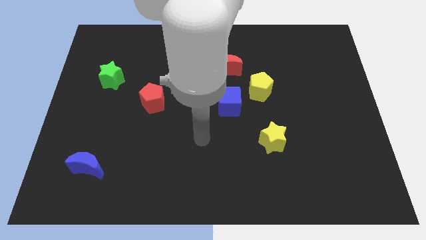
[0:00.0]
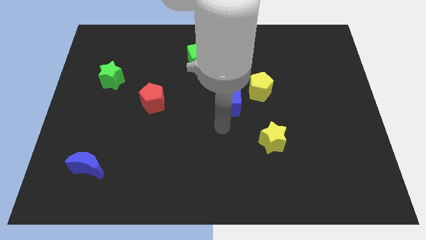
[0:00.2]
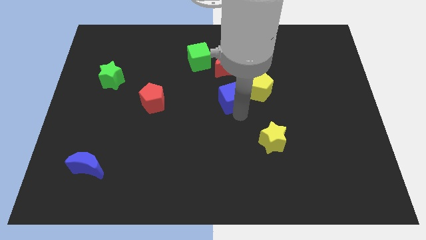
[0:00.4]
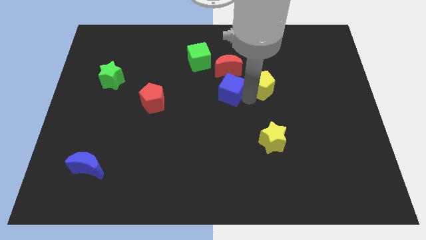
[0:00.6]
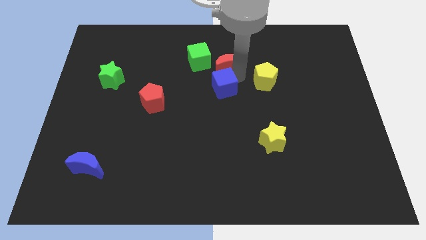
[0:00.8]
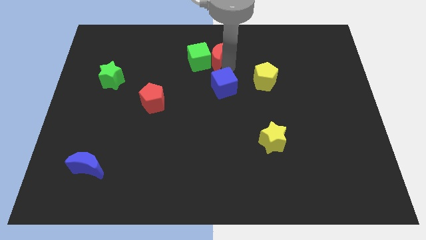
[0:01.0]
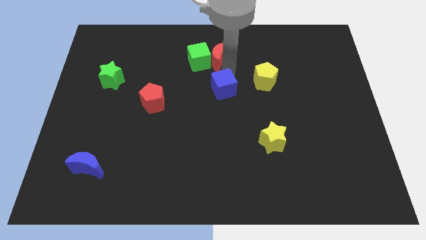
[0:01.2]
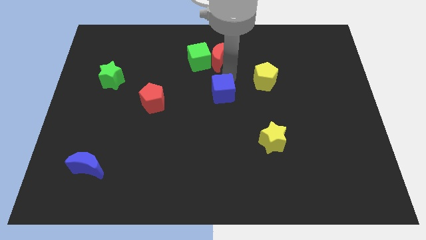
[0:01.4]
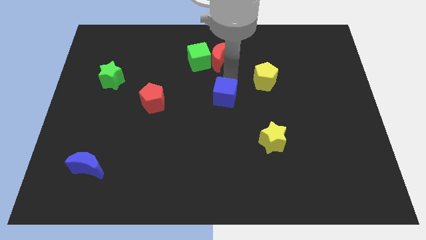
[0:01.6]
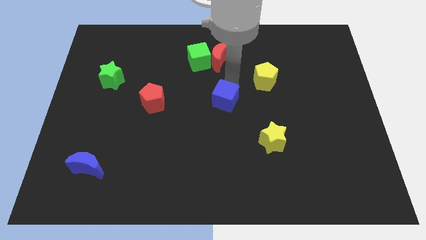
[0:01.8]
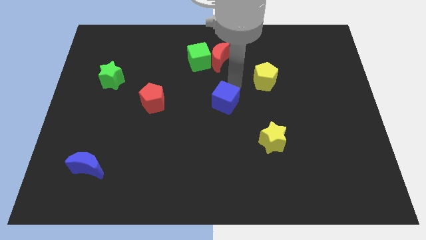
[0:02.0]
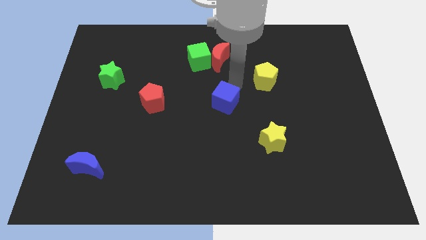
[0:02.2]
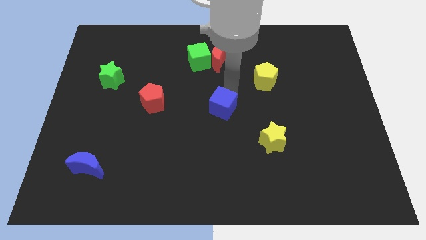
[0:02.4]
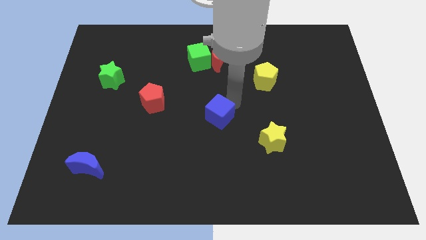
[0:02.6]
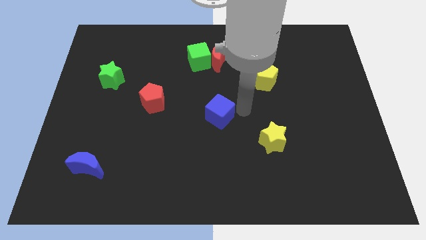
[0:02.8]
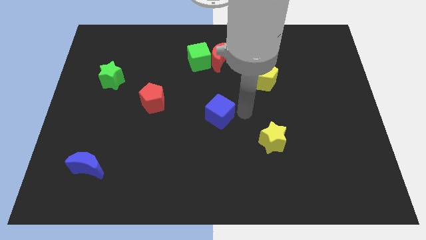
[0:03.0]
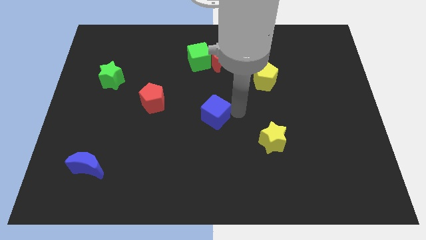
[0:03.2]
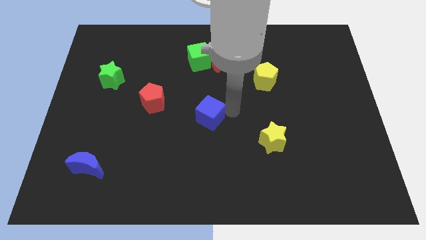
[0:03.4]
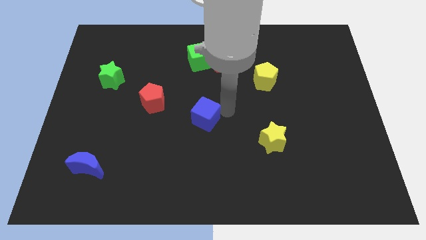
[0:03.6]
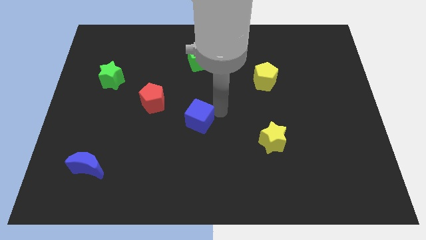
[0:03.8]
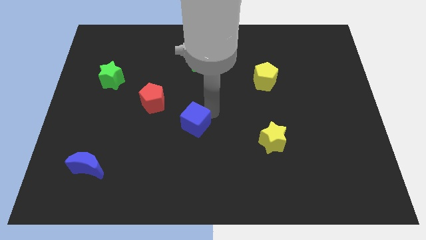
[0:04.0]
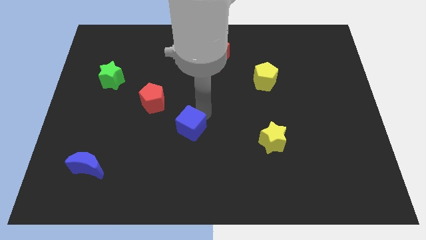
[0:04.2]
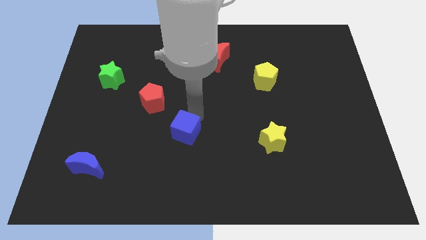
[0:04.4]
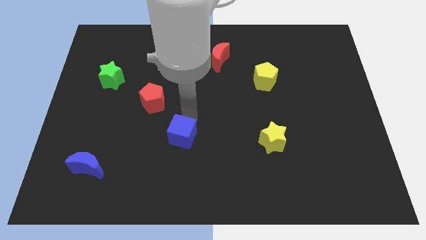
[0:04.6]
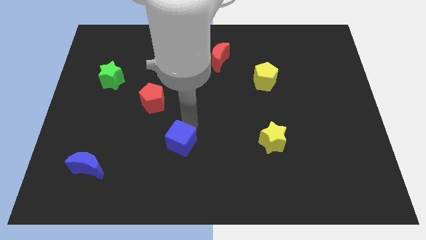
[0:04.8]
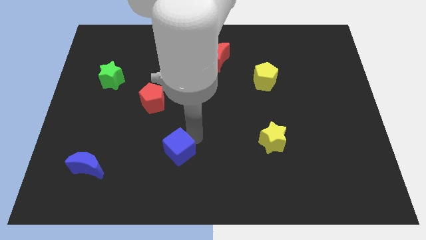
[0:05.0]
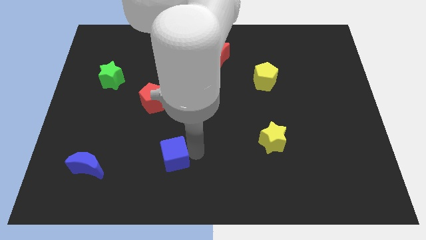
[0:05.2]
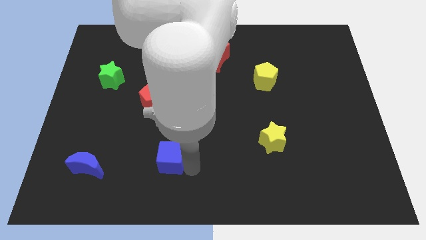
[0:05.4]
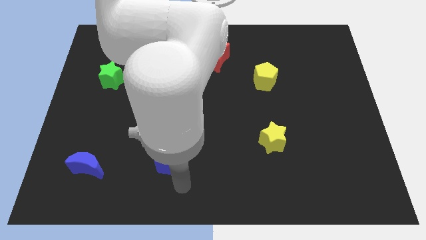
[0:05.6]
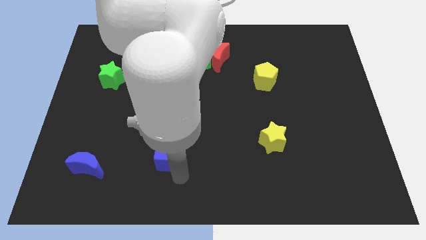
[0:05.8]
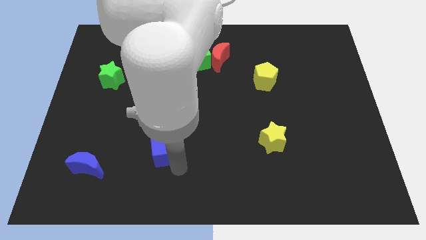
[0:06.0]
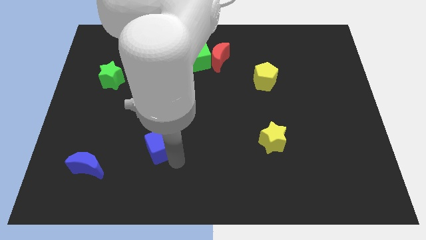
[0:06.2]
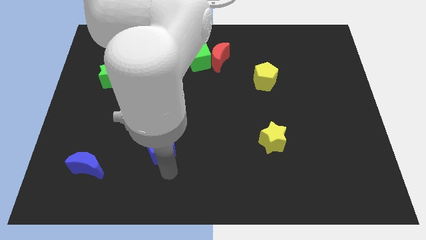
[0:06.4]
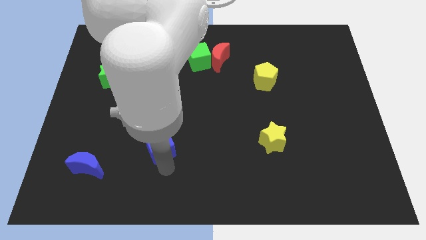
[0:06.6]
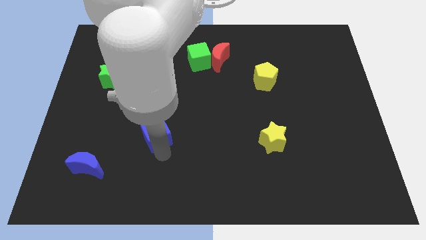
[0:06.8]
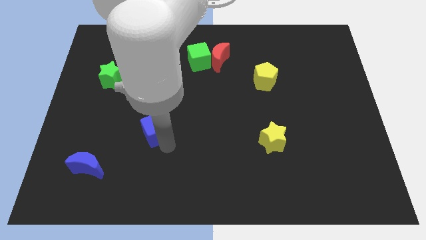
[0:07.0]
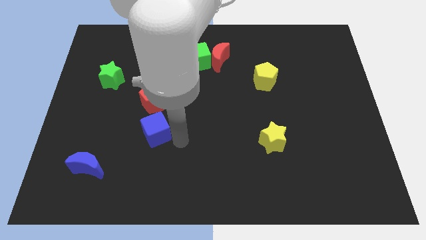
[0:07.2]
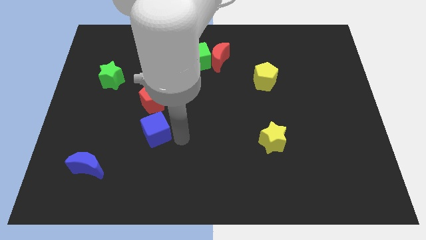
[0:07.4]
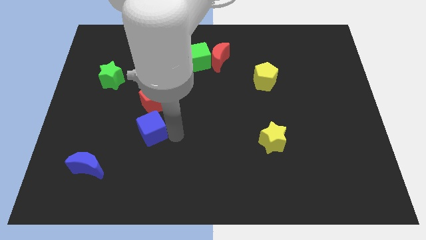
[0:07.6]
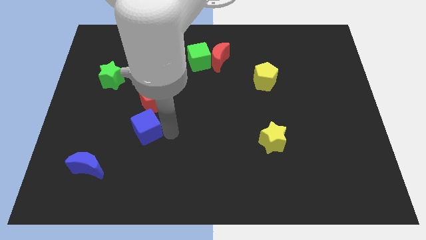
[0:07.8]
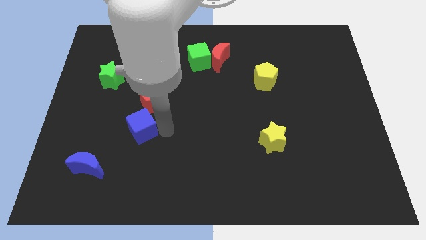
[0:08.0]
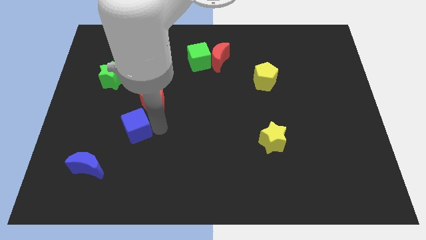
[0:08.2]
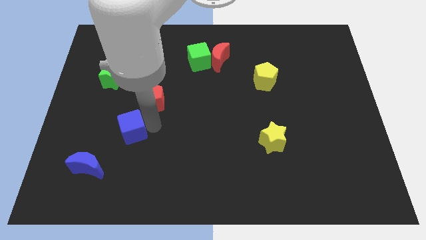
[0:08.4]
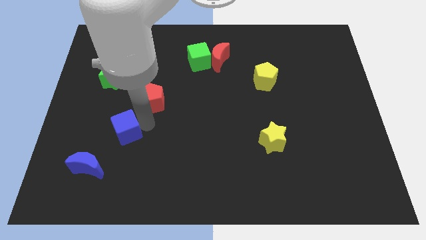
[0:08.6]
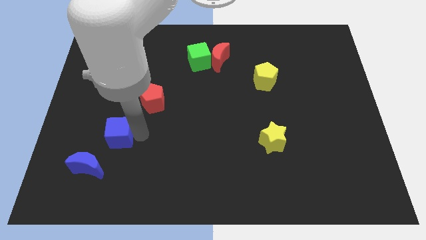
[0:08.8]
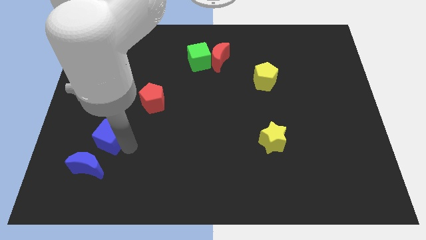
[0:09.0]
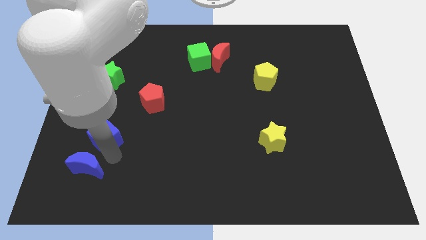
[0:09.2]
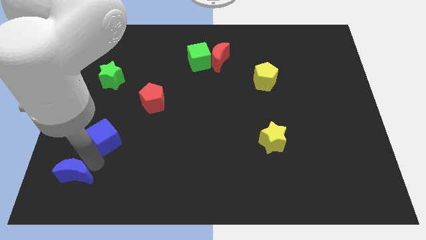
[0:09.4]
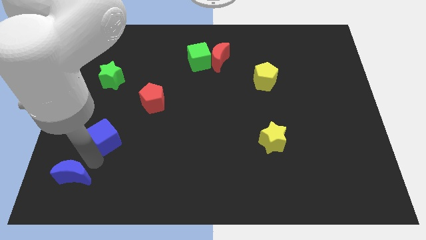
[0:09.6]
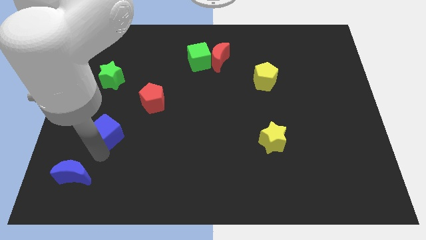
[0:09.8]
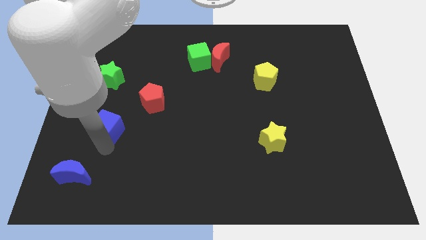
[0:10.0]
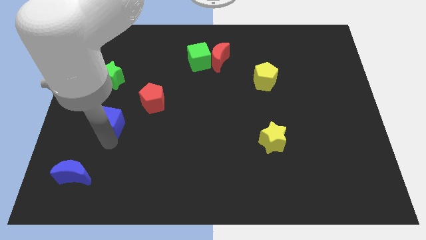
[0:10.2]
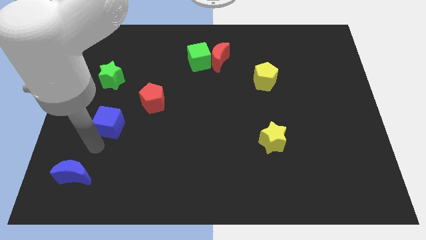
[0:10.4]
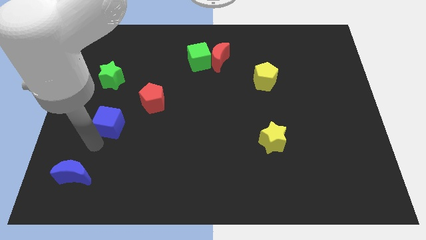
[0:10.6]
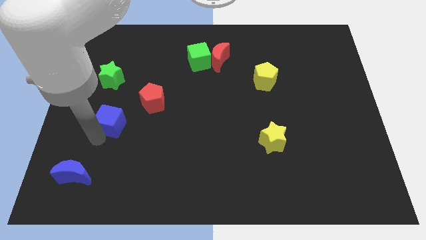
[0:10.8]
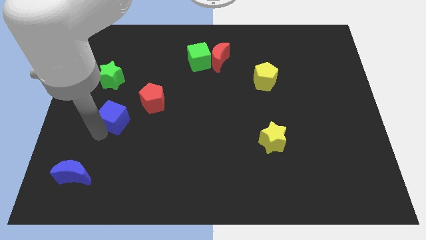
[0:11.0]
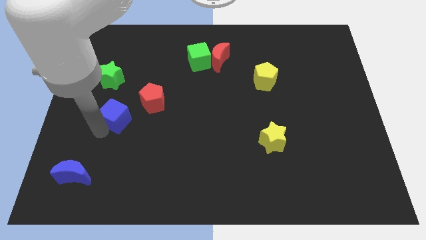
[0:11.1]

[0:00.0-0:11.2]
push the blue cube to the left of the red pentagon

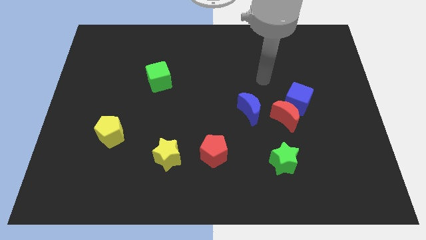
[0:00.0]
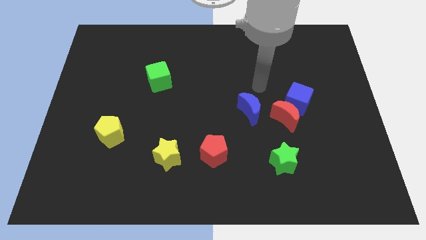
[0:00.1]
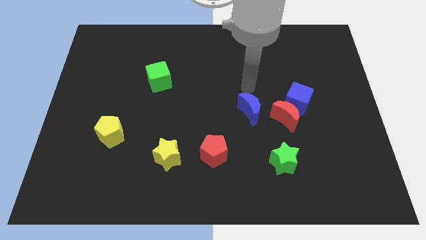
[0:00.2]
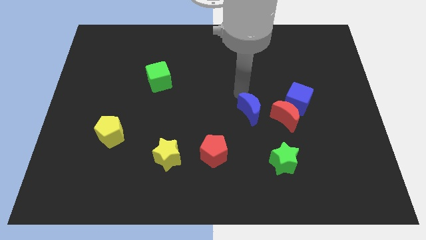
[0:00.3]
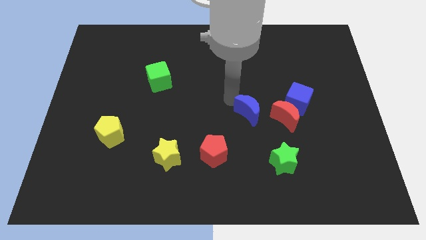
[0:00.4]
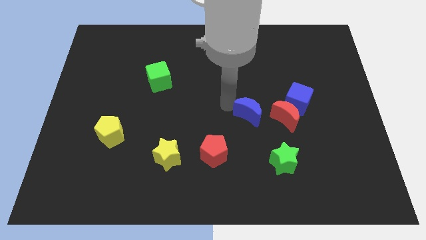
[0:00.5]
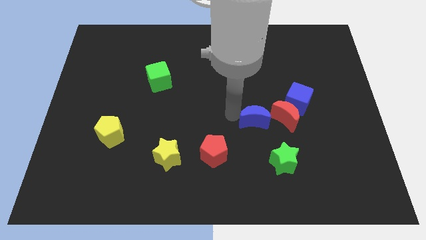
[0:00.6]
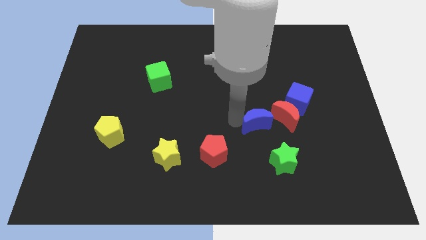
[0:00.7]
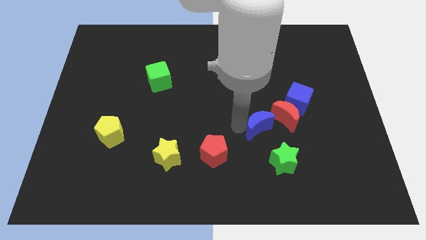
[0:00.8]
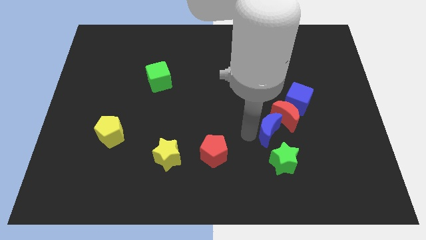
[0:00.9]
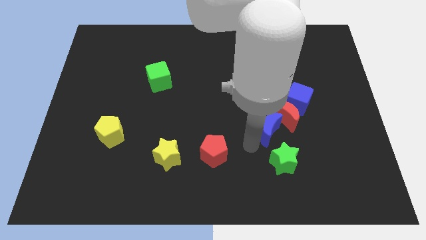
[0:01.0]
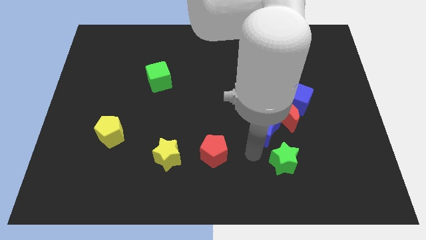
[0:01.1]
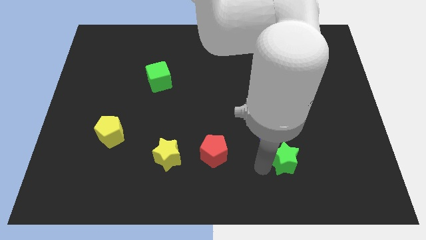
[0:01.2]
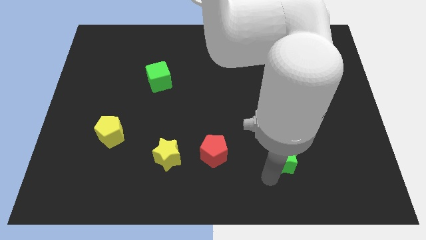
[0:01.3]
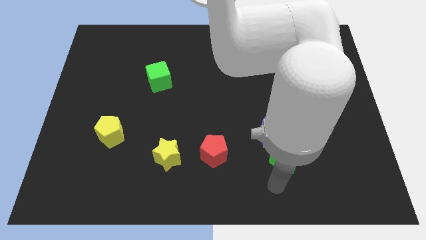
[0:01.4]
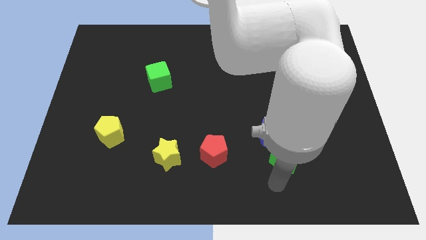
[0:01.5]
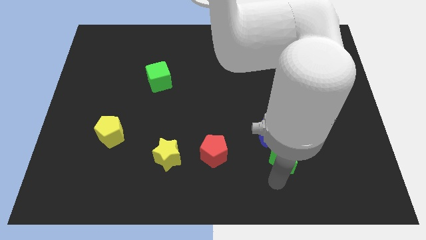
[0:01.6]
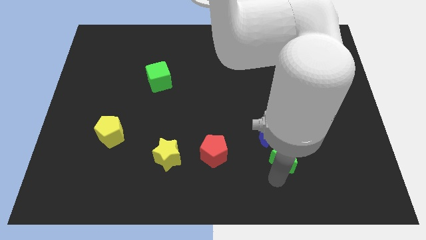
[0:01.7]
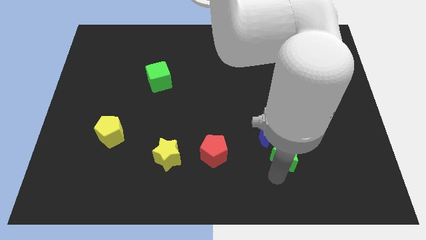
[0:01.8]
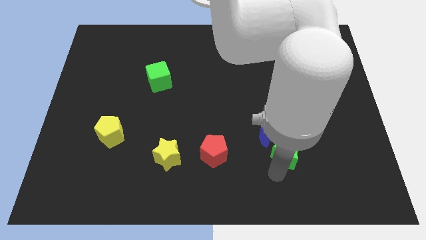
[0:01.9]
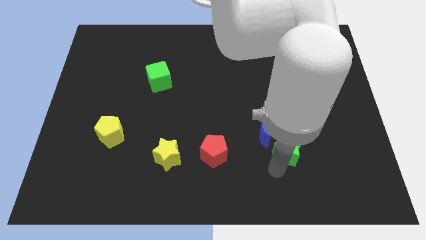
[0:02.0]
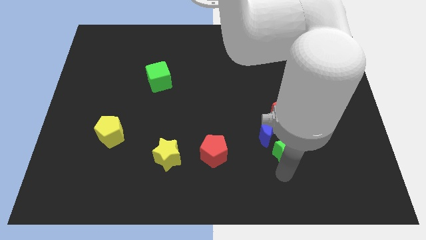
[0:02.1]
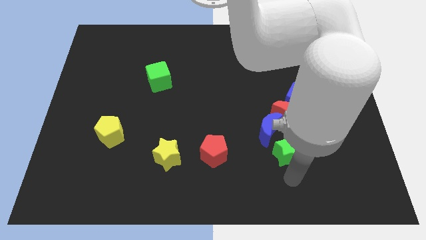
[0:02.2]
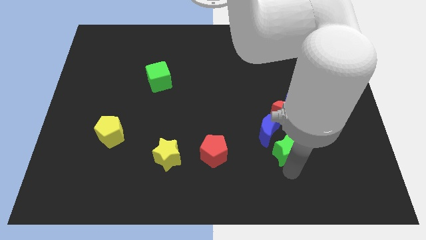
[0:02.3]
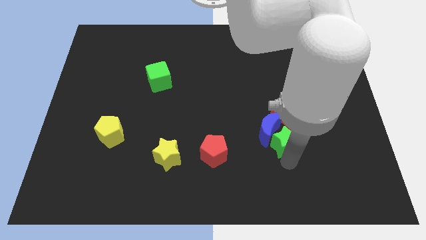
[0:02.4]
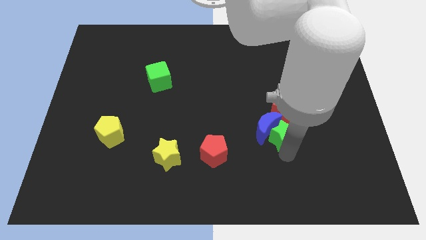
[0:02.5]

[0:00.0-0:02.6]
push the green star to the bottom left side of the blue cube
